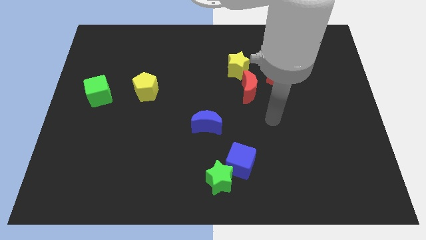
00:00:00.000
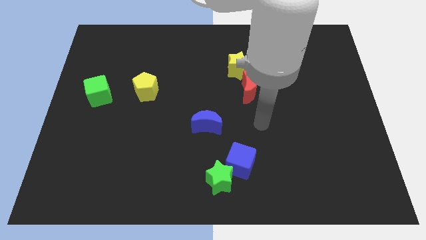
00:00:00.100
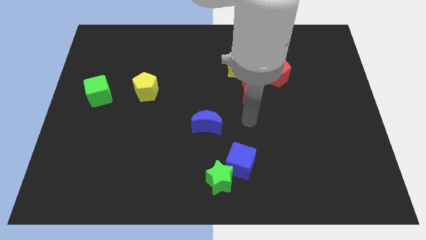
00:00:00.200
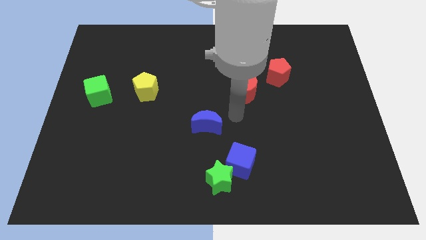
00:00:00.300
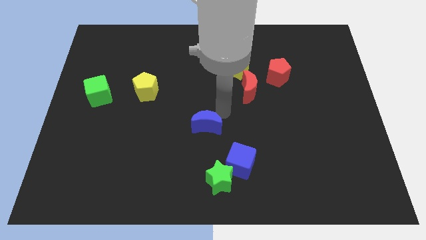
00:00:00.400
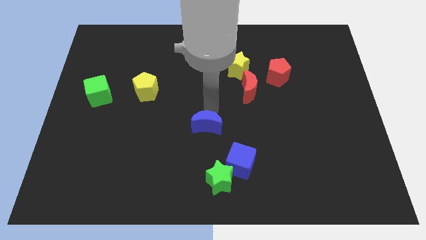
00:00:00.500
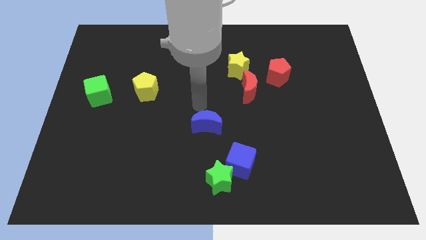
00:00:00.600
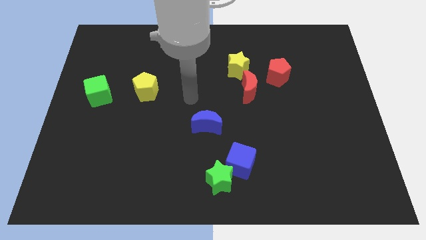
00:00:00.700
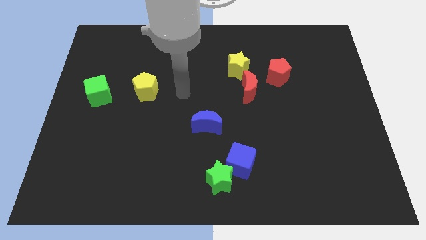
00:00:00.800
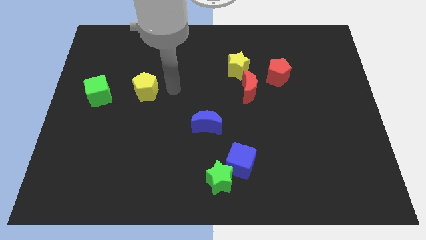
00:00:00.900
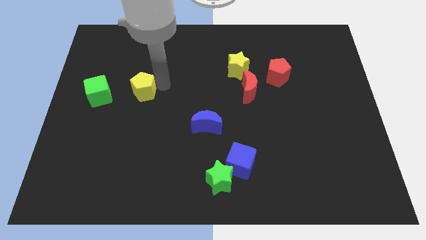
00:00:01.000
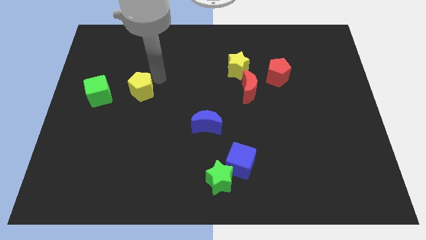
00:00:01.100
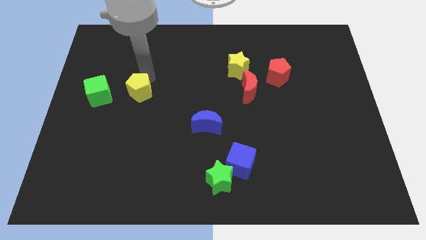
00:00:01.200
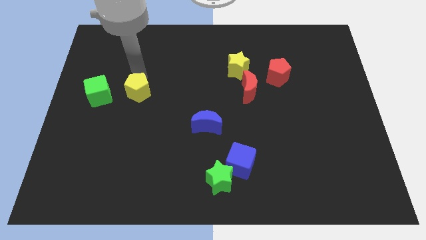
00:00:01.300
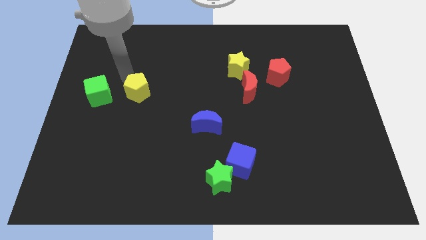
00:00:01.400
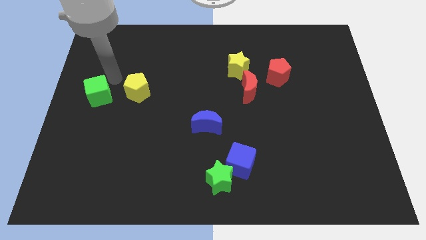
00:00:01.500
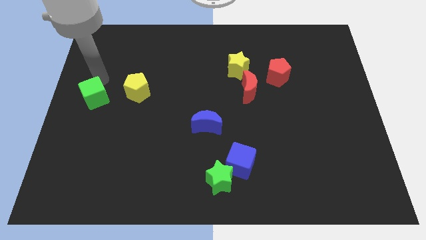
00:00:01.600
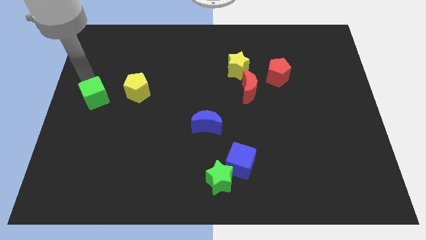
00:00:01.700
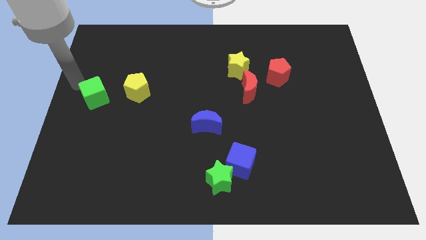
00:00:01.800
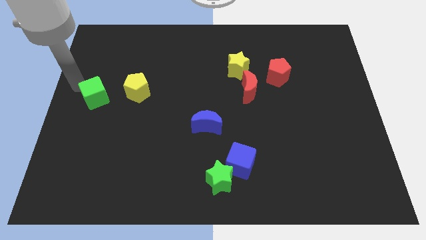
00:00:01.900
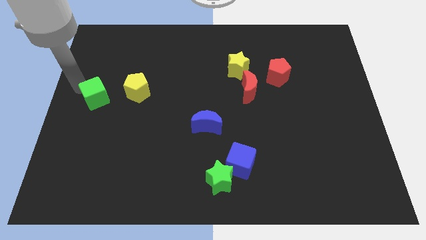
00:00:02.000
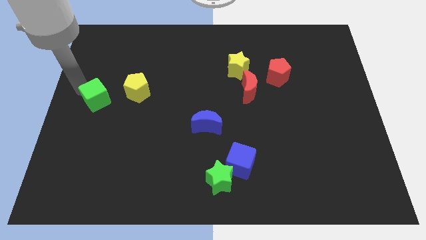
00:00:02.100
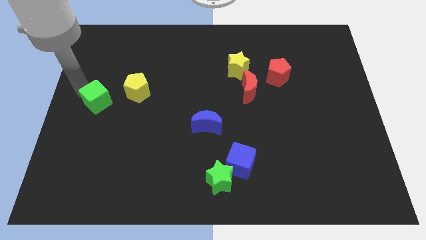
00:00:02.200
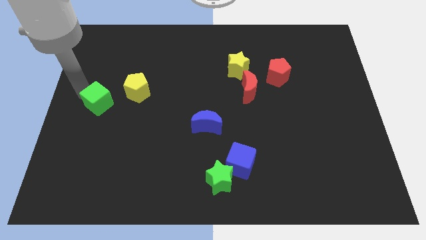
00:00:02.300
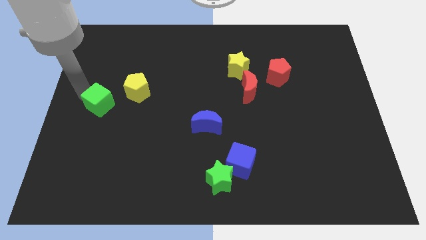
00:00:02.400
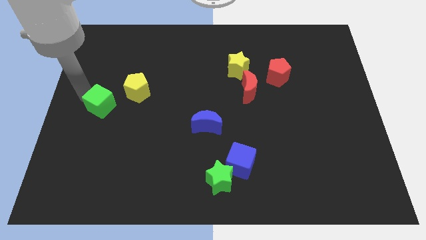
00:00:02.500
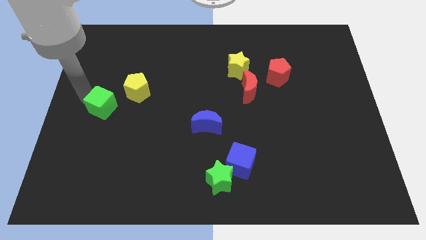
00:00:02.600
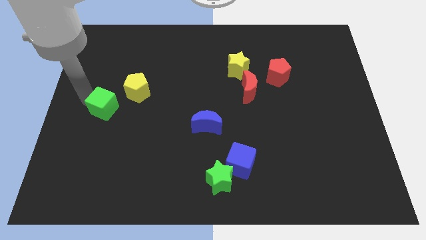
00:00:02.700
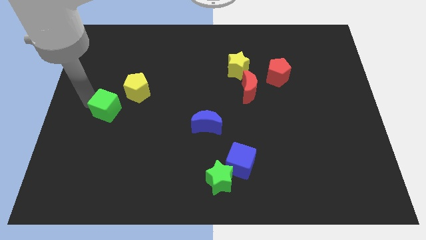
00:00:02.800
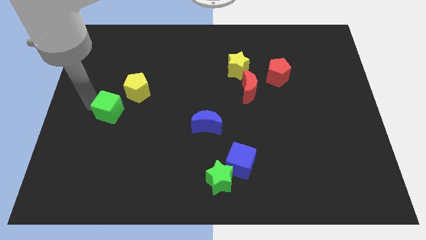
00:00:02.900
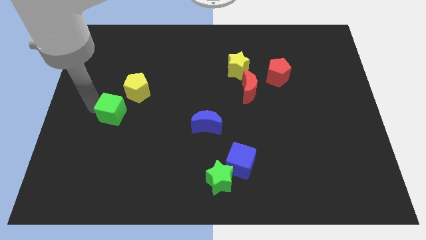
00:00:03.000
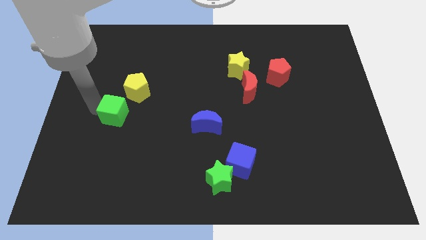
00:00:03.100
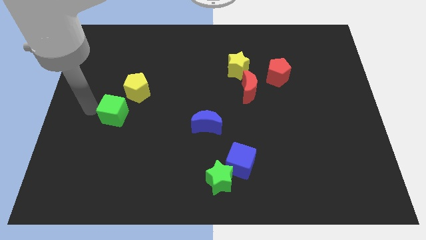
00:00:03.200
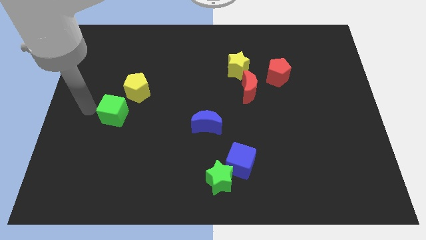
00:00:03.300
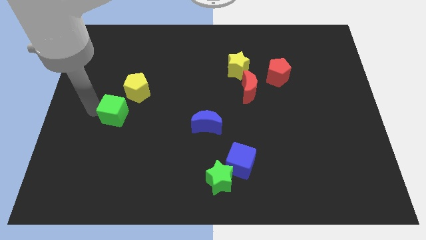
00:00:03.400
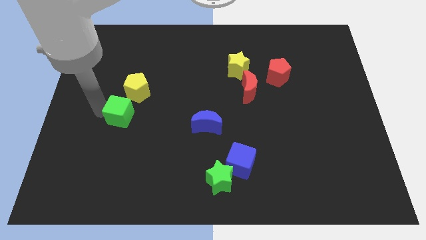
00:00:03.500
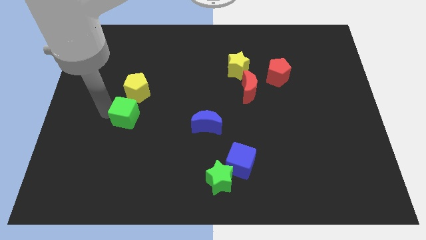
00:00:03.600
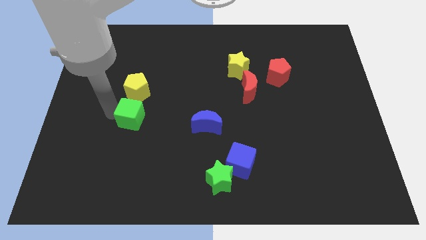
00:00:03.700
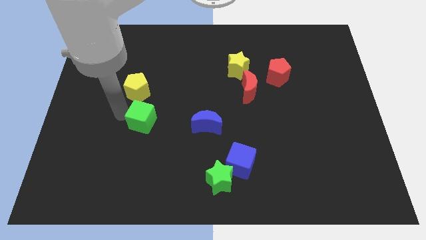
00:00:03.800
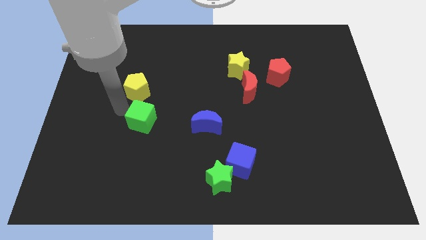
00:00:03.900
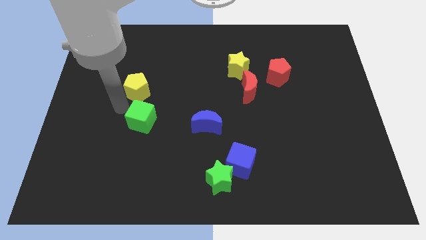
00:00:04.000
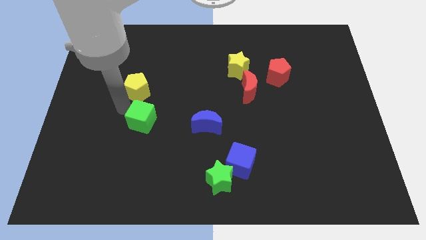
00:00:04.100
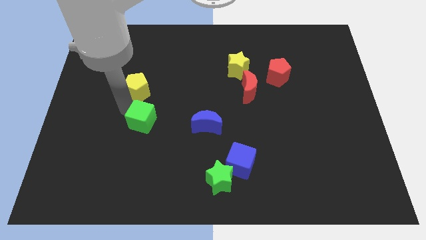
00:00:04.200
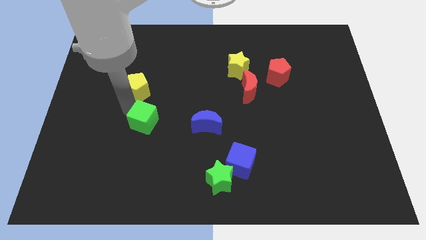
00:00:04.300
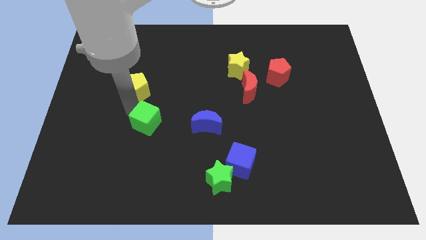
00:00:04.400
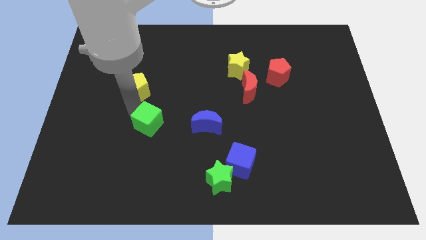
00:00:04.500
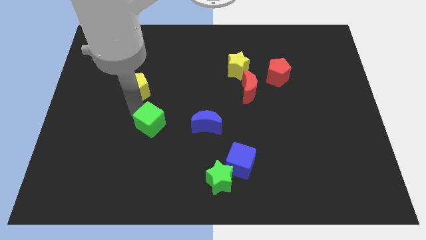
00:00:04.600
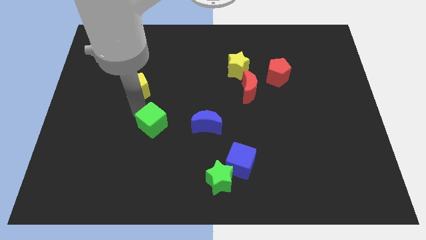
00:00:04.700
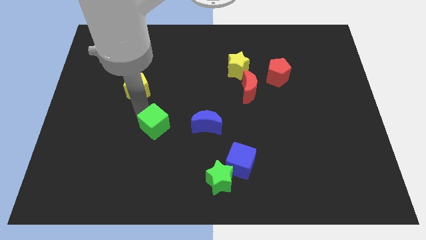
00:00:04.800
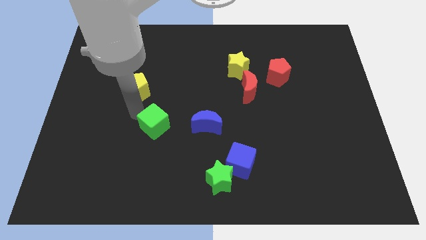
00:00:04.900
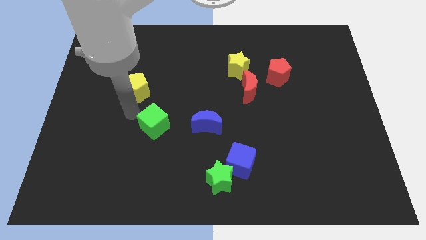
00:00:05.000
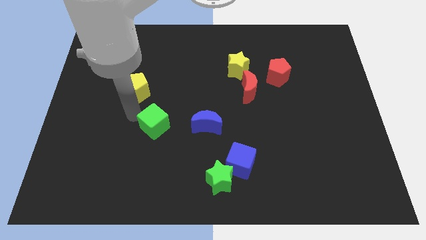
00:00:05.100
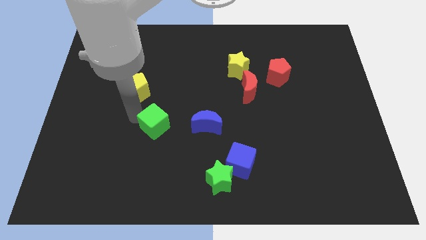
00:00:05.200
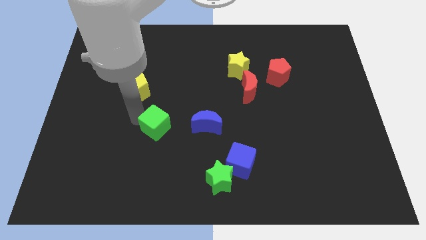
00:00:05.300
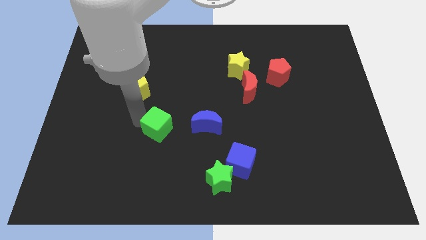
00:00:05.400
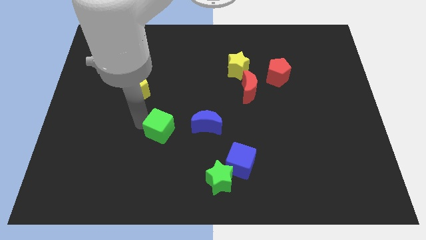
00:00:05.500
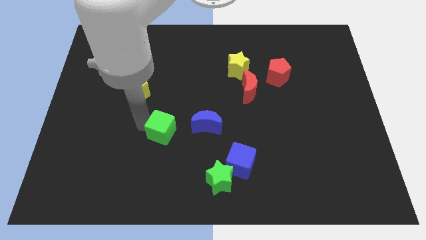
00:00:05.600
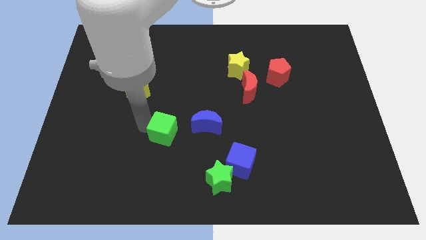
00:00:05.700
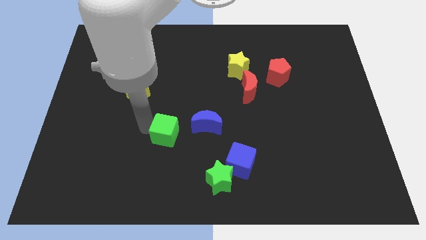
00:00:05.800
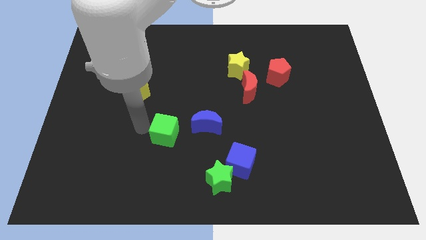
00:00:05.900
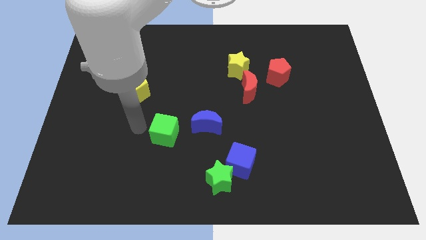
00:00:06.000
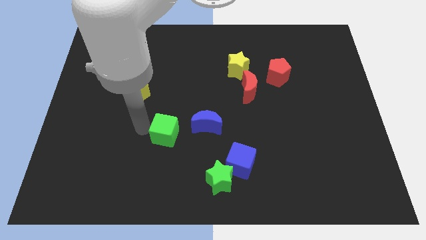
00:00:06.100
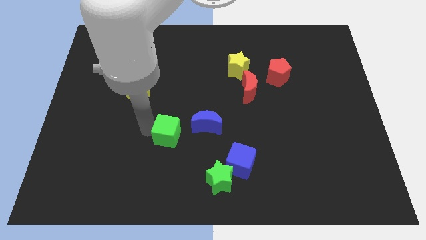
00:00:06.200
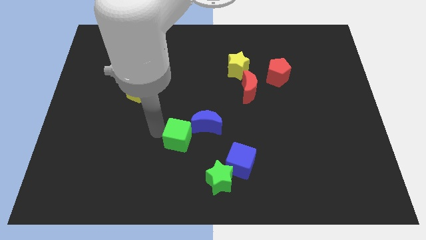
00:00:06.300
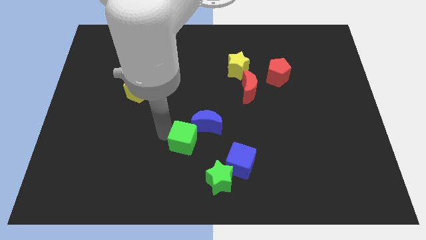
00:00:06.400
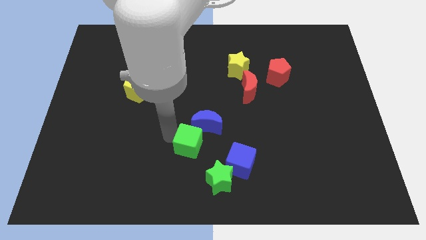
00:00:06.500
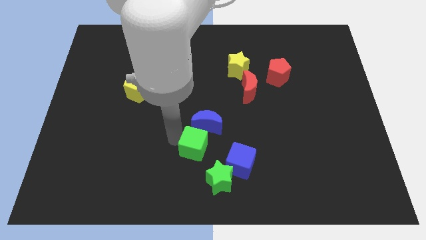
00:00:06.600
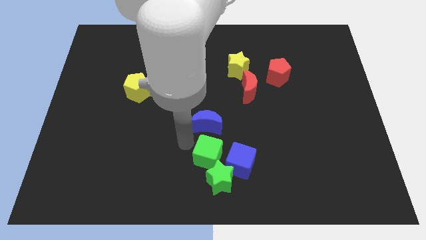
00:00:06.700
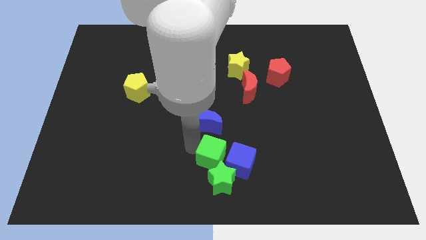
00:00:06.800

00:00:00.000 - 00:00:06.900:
move the green cube close to the blue cube

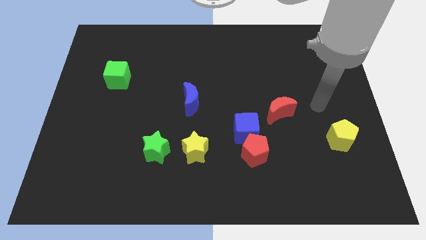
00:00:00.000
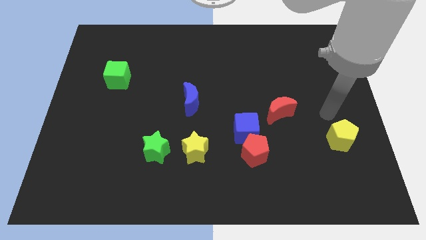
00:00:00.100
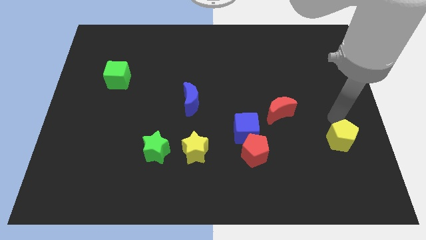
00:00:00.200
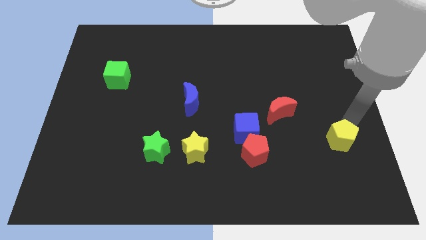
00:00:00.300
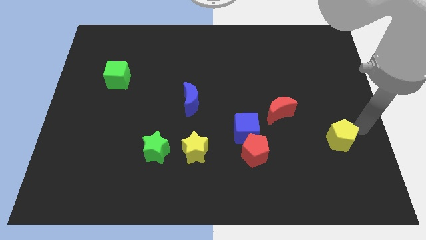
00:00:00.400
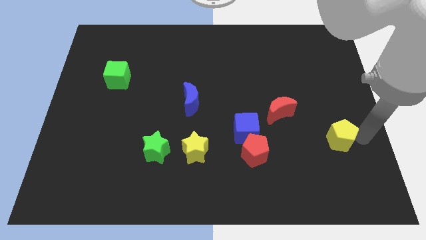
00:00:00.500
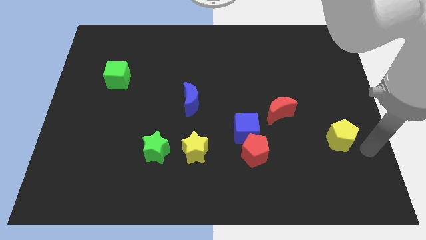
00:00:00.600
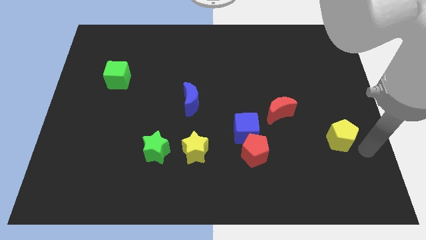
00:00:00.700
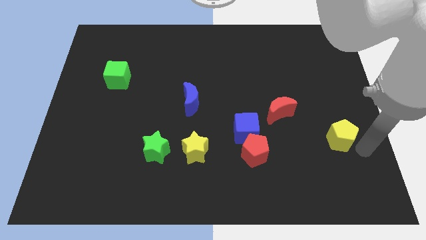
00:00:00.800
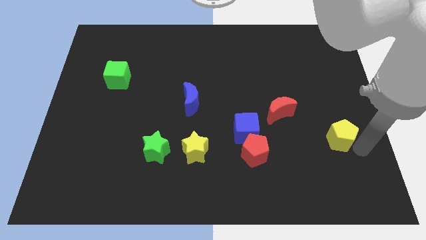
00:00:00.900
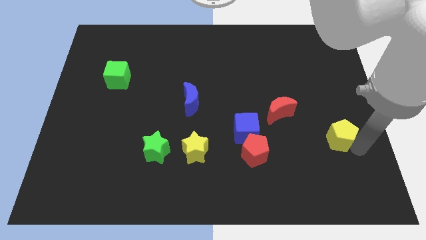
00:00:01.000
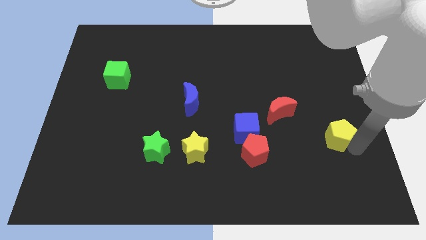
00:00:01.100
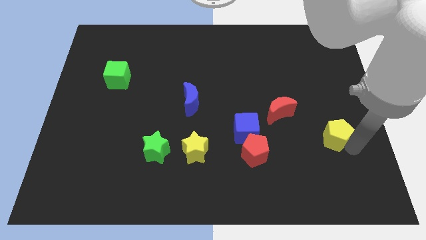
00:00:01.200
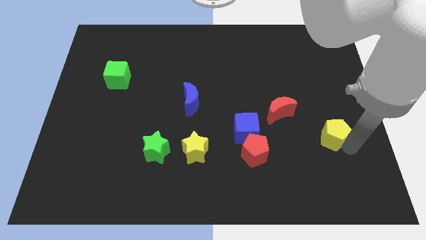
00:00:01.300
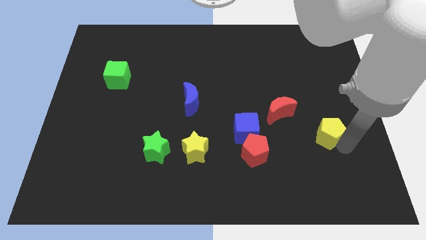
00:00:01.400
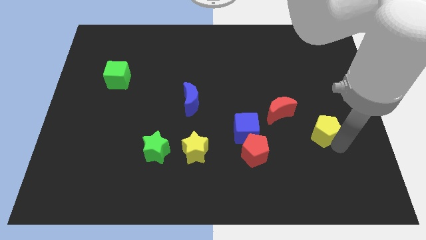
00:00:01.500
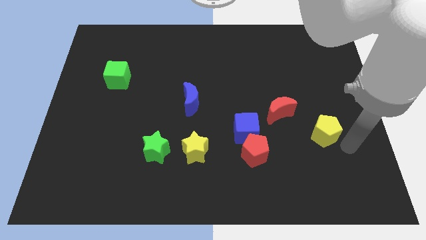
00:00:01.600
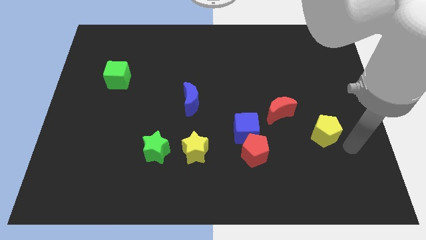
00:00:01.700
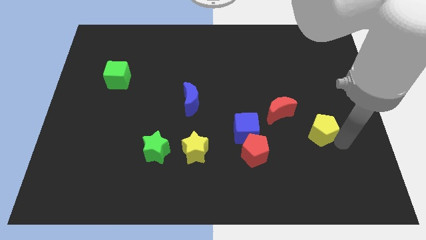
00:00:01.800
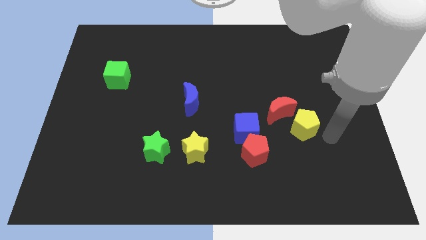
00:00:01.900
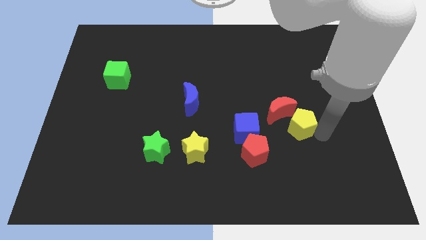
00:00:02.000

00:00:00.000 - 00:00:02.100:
push the yellow pentagon next to the red moon
